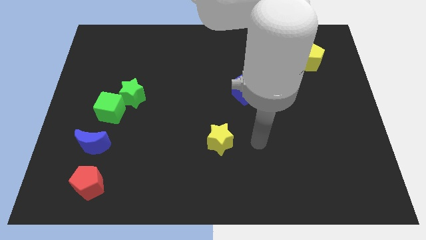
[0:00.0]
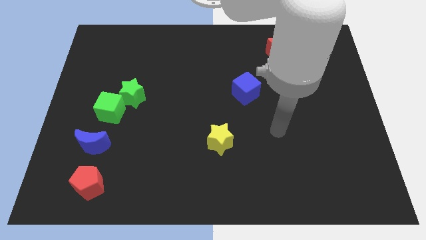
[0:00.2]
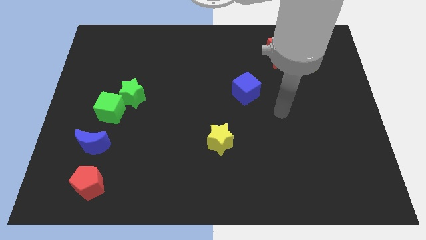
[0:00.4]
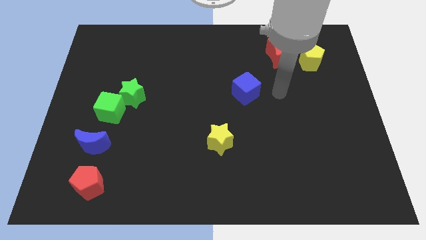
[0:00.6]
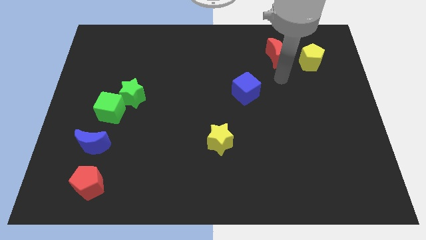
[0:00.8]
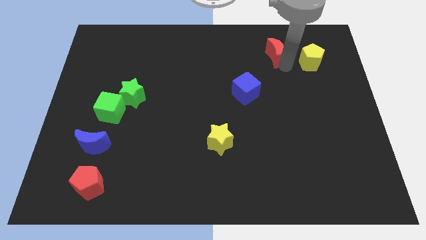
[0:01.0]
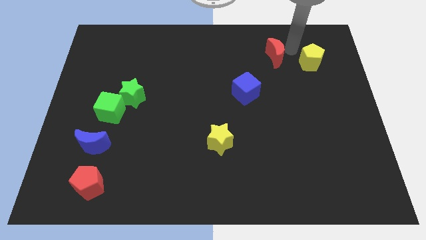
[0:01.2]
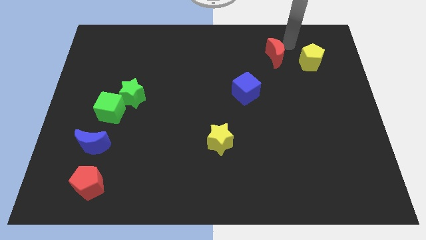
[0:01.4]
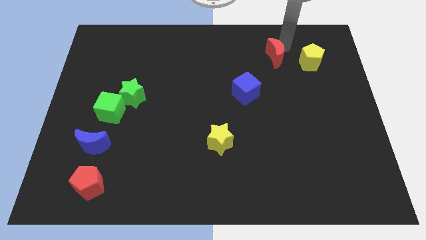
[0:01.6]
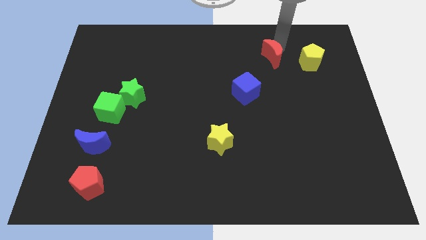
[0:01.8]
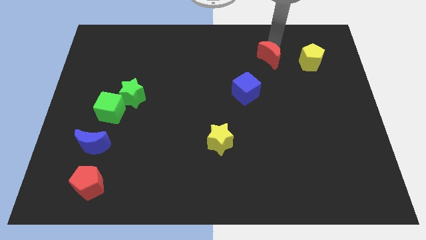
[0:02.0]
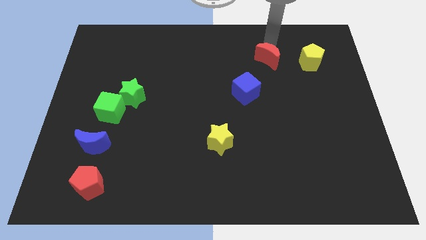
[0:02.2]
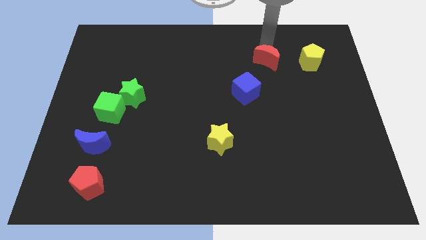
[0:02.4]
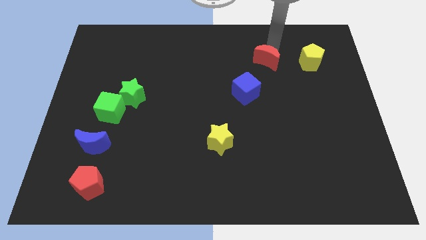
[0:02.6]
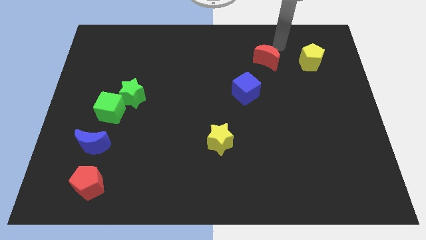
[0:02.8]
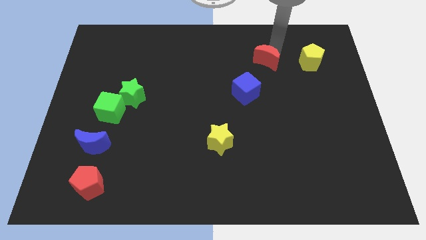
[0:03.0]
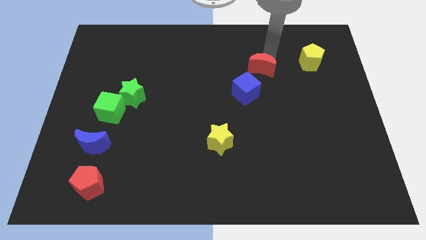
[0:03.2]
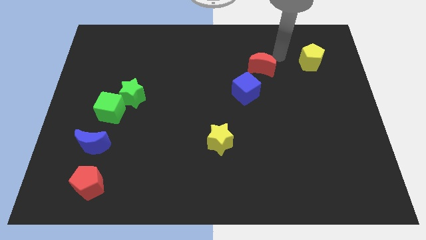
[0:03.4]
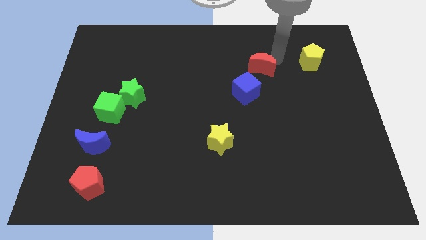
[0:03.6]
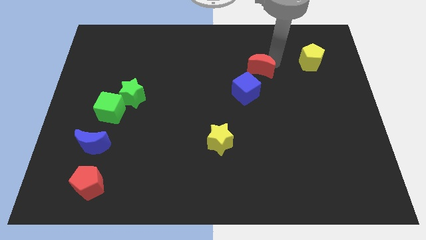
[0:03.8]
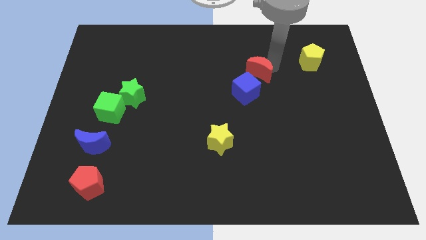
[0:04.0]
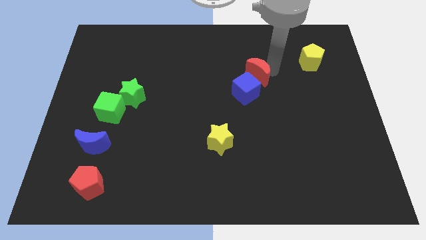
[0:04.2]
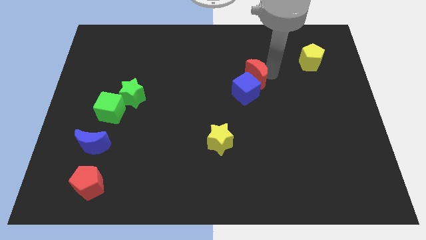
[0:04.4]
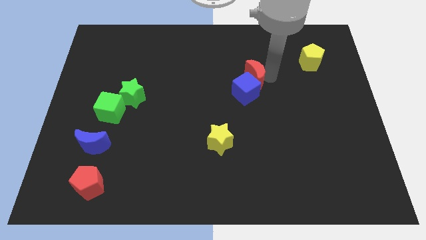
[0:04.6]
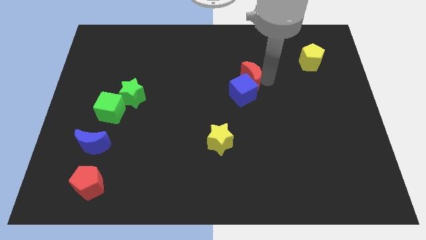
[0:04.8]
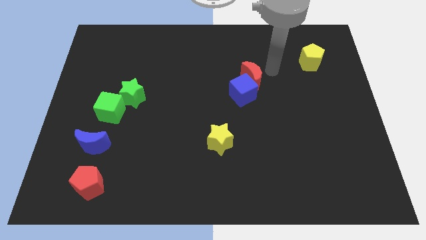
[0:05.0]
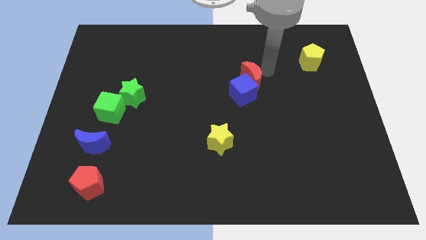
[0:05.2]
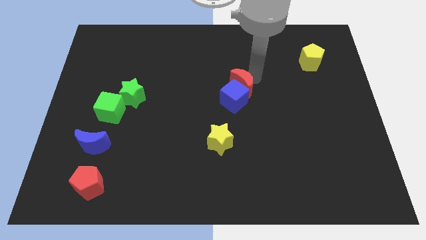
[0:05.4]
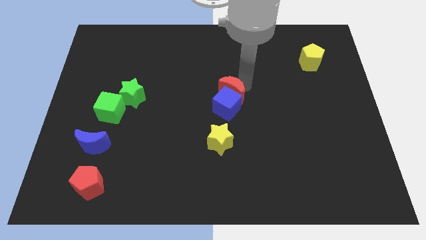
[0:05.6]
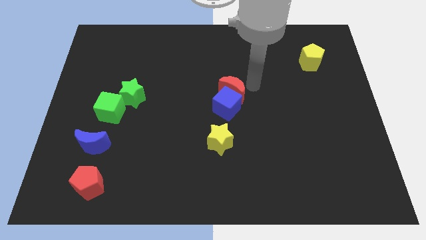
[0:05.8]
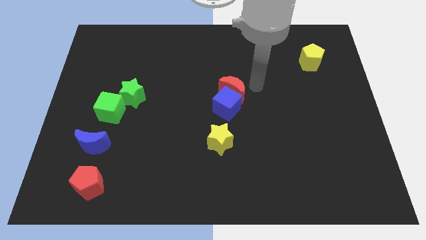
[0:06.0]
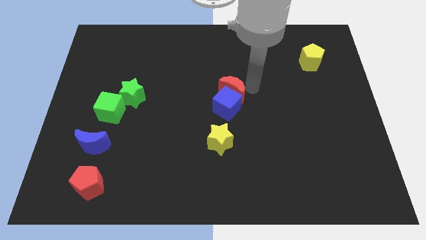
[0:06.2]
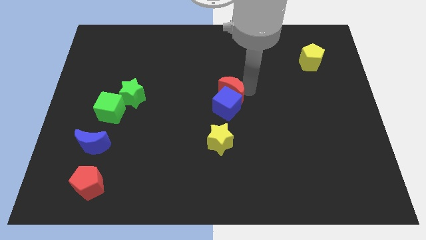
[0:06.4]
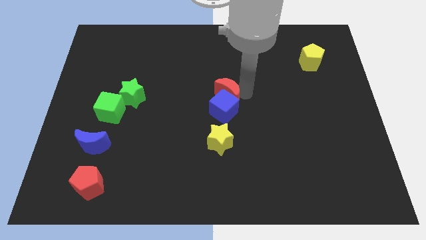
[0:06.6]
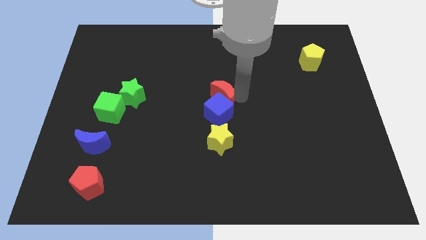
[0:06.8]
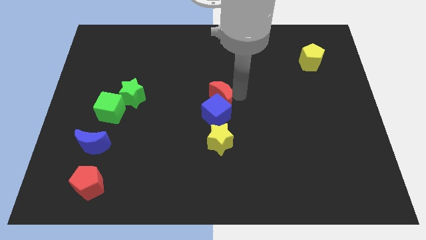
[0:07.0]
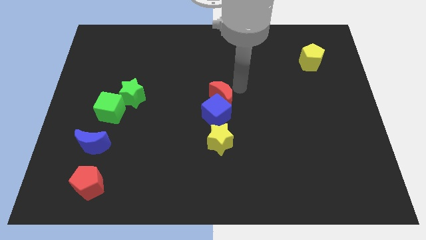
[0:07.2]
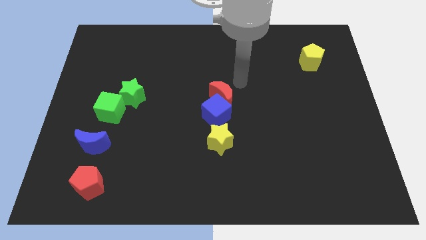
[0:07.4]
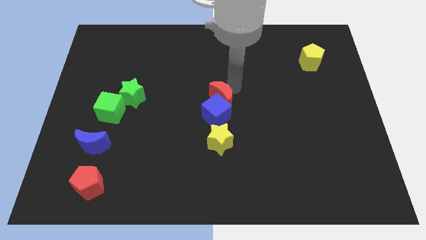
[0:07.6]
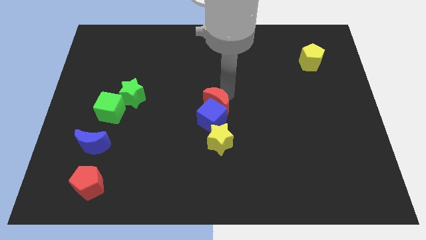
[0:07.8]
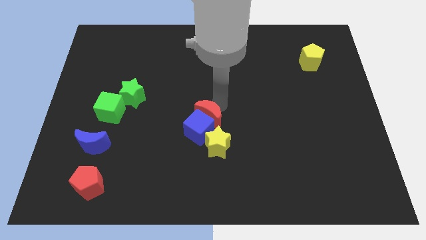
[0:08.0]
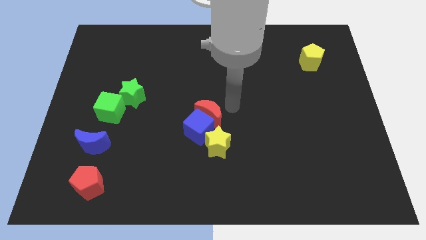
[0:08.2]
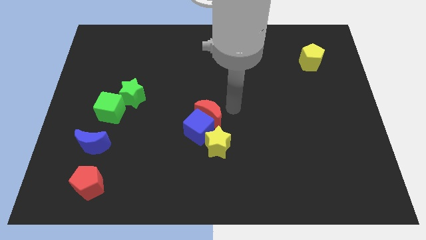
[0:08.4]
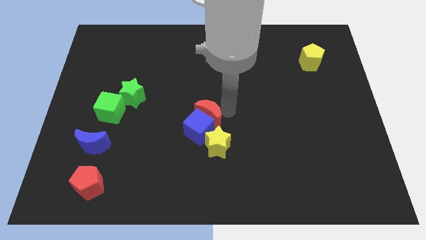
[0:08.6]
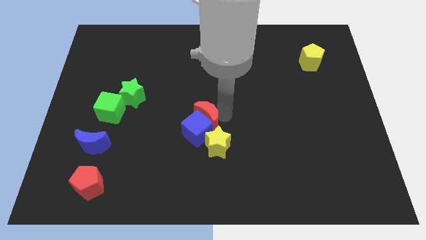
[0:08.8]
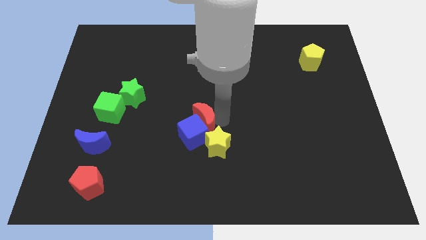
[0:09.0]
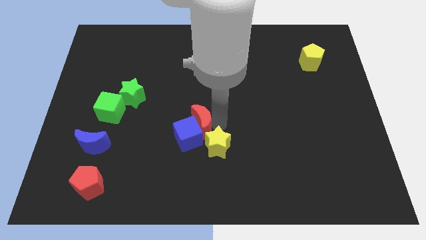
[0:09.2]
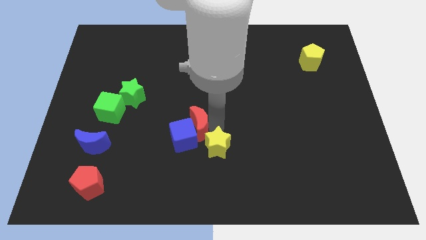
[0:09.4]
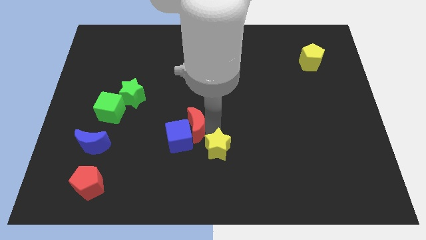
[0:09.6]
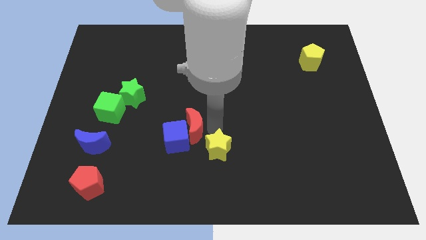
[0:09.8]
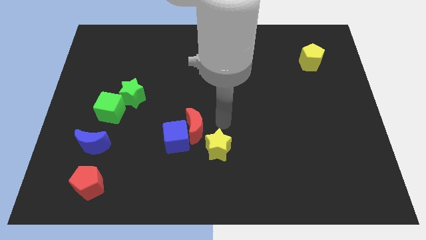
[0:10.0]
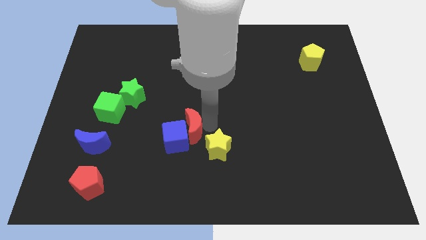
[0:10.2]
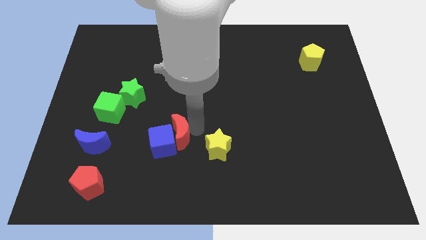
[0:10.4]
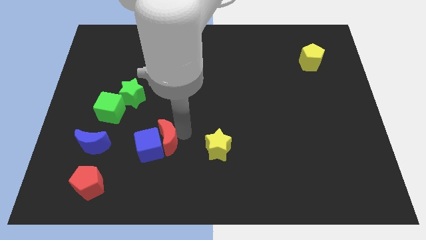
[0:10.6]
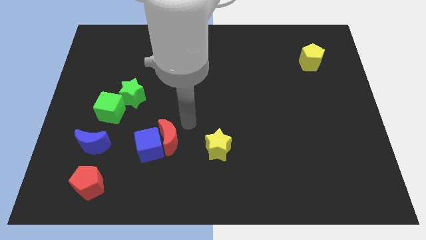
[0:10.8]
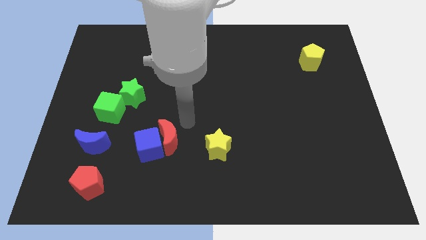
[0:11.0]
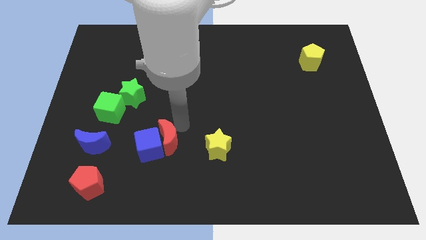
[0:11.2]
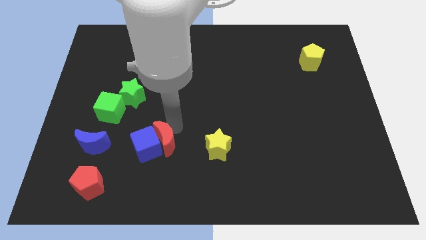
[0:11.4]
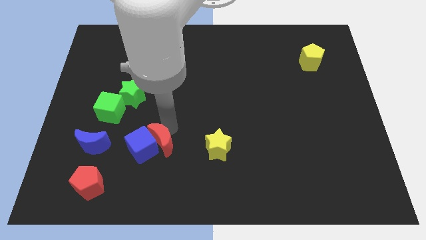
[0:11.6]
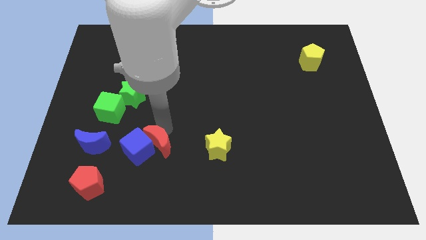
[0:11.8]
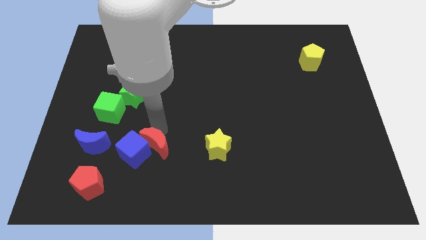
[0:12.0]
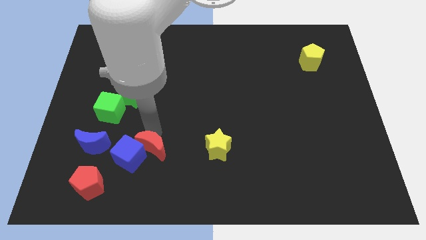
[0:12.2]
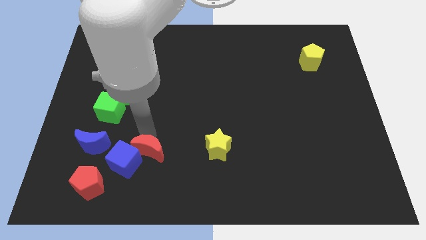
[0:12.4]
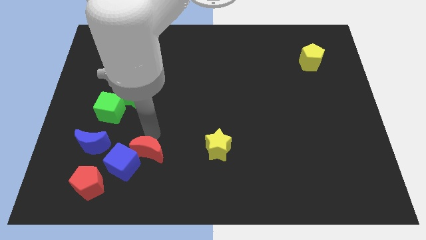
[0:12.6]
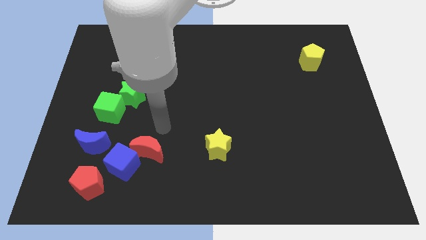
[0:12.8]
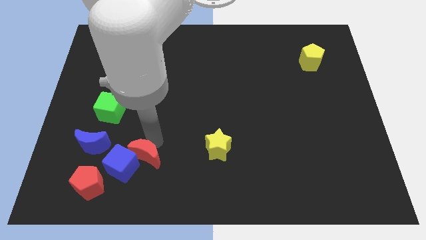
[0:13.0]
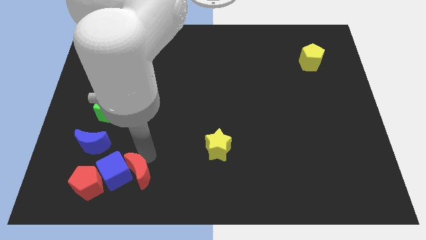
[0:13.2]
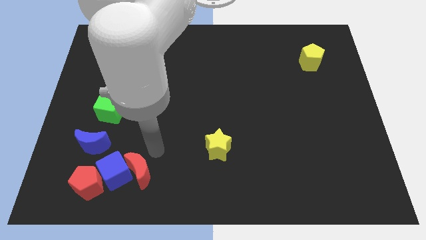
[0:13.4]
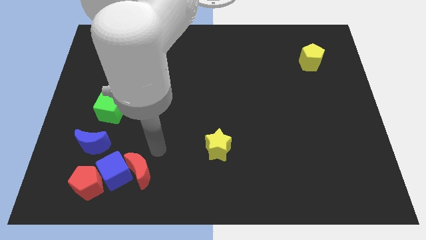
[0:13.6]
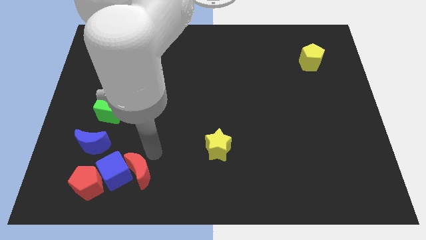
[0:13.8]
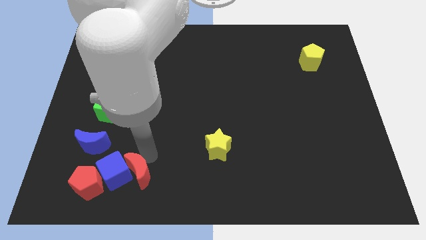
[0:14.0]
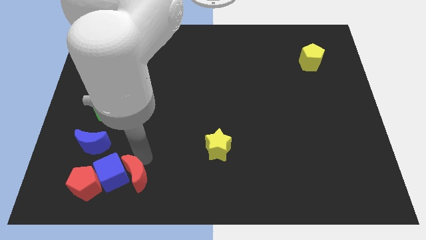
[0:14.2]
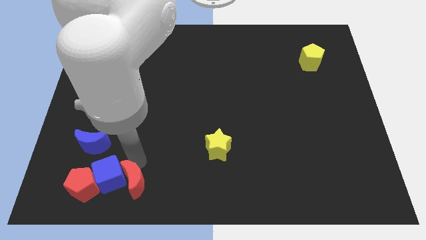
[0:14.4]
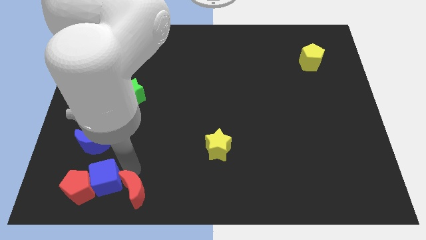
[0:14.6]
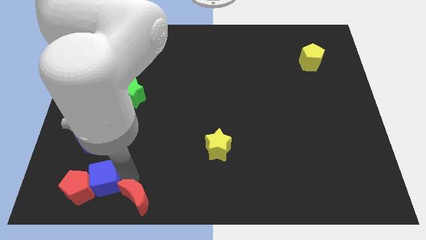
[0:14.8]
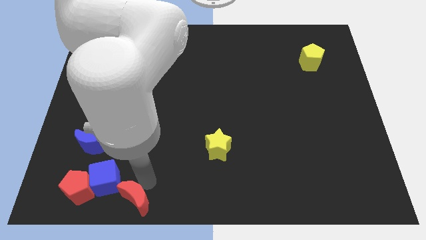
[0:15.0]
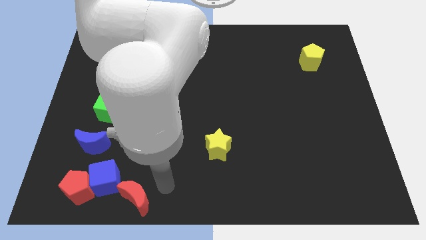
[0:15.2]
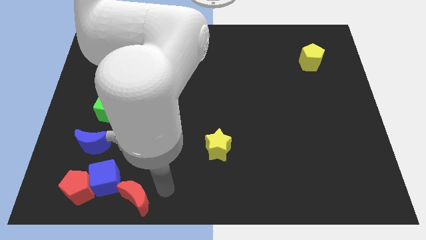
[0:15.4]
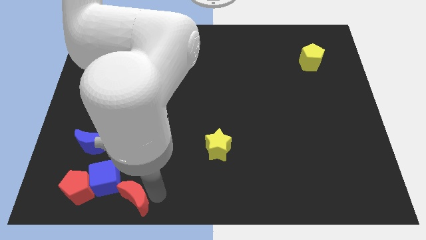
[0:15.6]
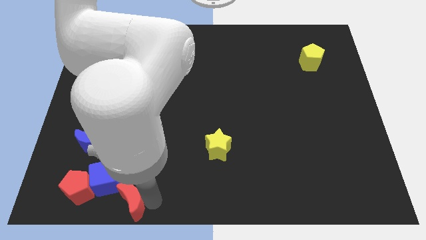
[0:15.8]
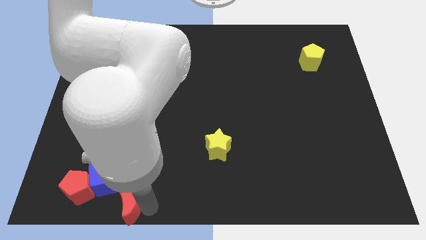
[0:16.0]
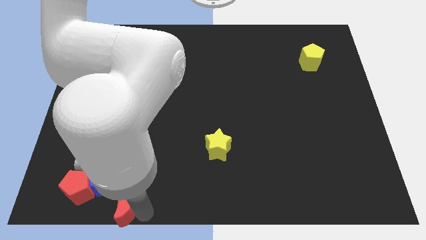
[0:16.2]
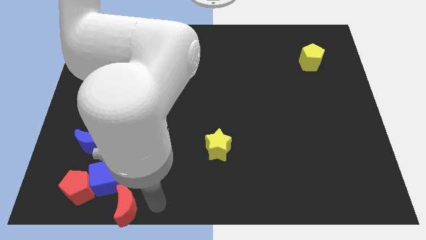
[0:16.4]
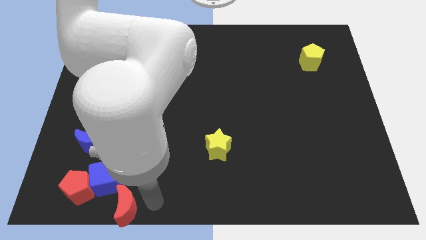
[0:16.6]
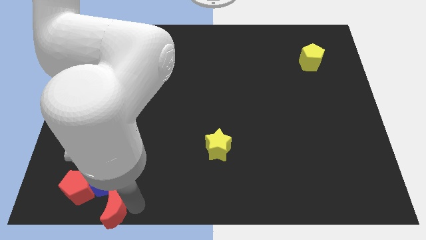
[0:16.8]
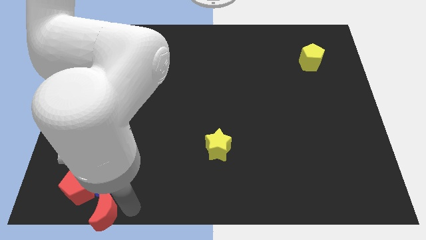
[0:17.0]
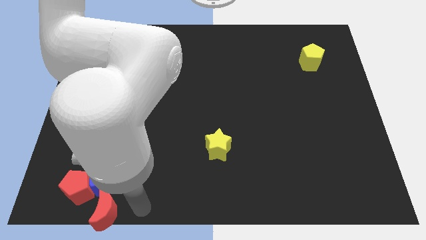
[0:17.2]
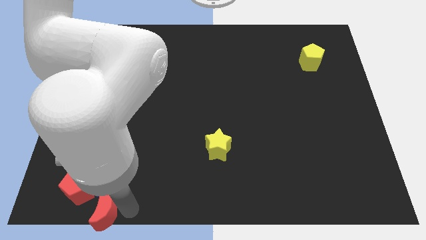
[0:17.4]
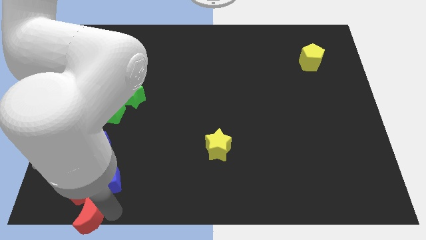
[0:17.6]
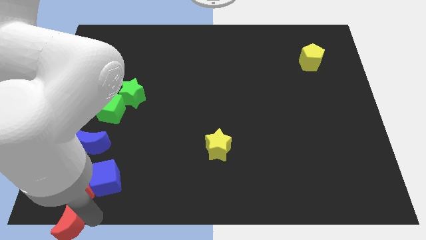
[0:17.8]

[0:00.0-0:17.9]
put the red moon to the lower left corner
